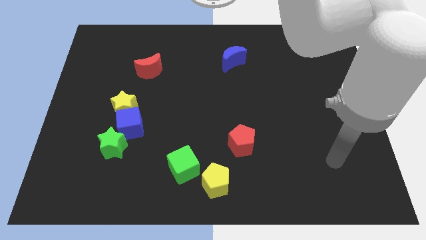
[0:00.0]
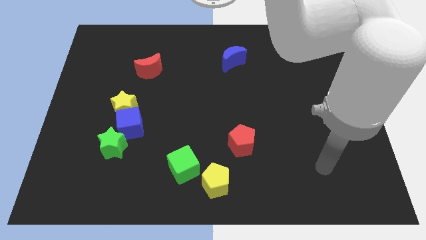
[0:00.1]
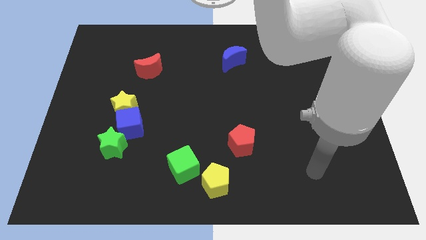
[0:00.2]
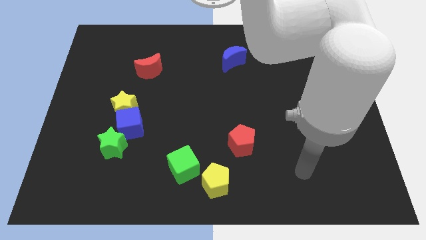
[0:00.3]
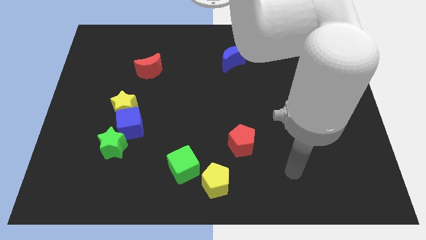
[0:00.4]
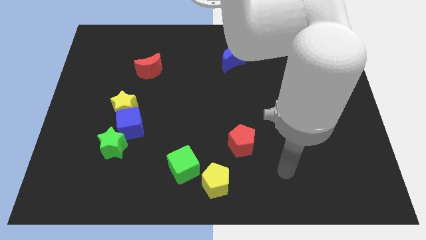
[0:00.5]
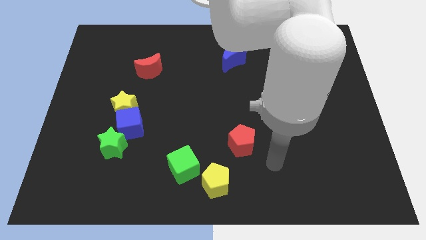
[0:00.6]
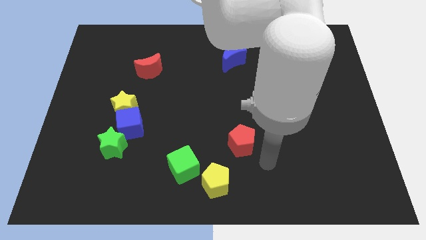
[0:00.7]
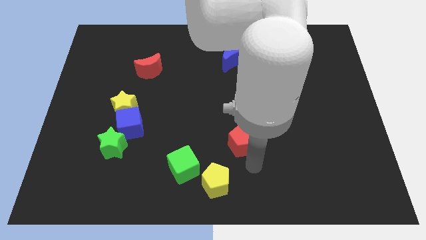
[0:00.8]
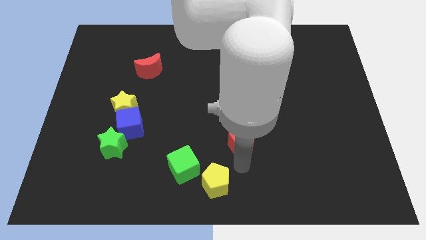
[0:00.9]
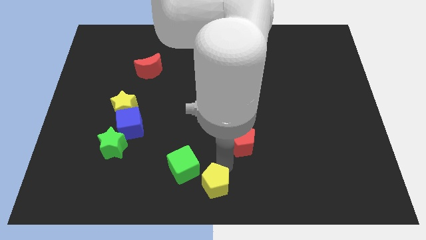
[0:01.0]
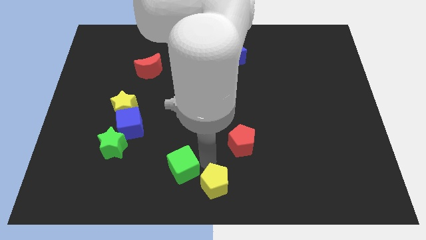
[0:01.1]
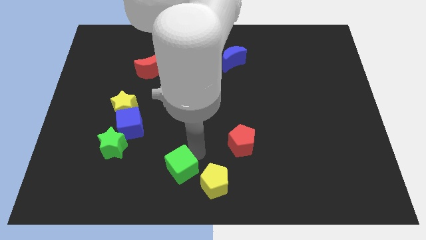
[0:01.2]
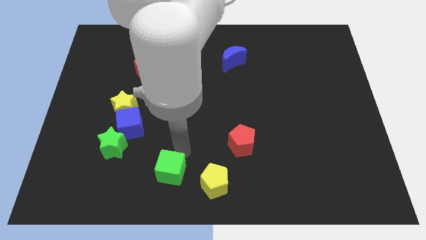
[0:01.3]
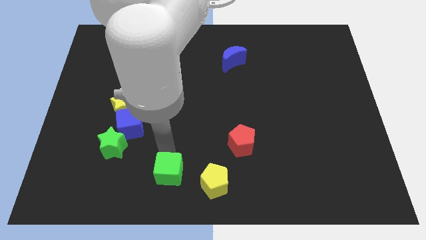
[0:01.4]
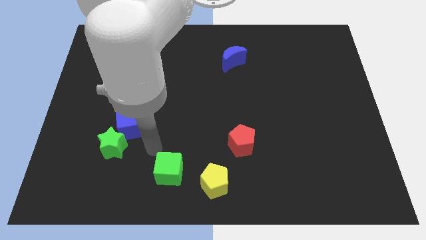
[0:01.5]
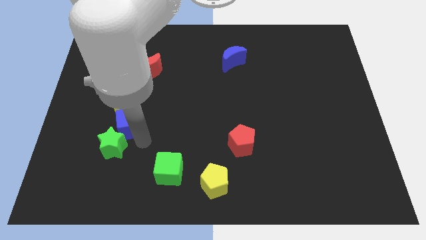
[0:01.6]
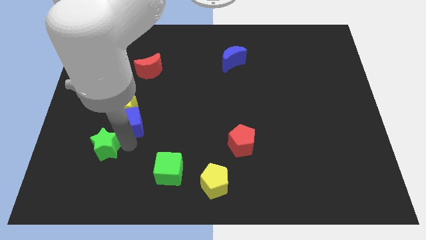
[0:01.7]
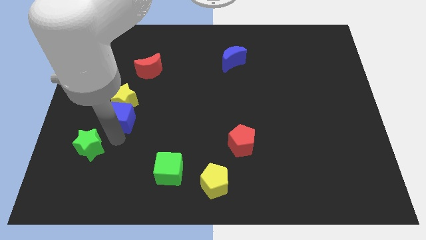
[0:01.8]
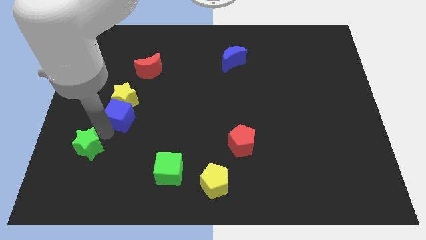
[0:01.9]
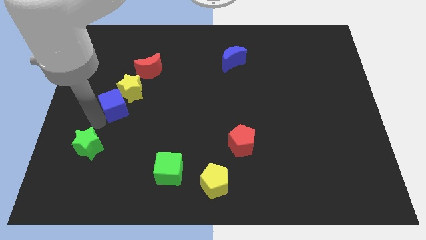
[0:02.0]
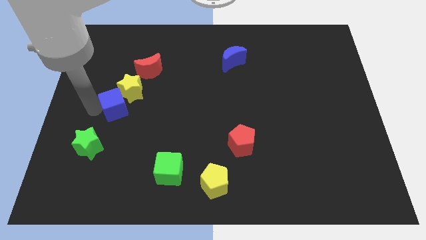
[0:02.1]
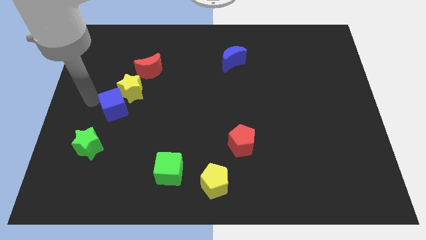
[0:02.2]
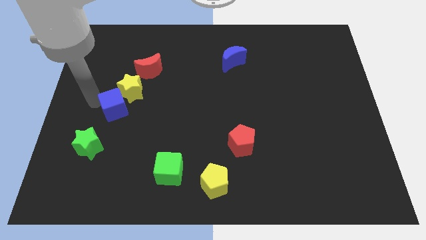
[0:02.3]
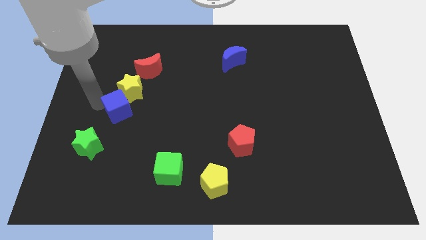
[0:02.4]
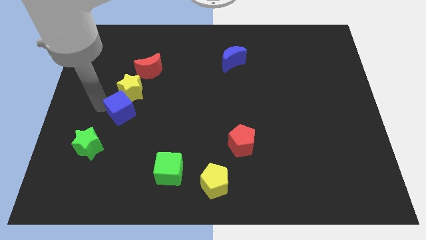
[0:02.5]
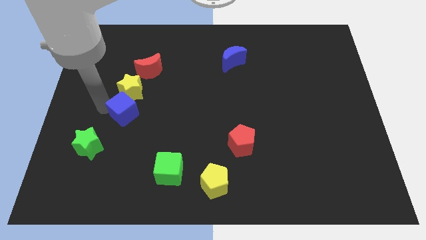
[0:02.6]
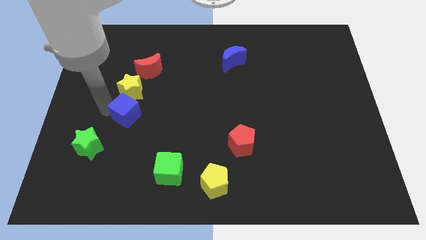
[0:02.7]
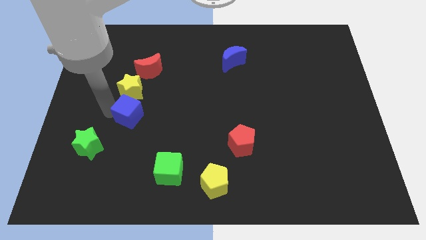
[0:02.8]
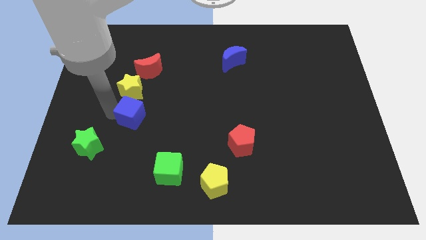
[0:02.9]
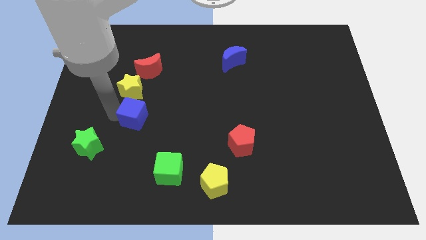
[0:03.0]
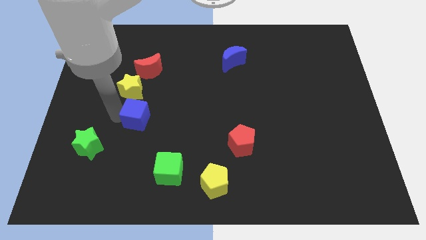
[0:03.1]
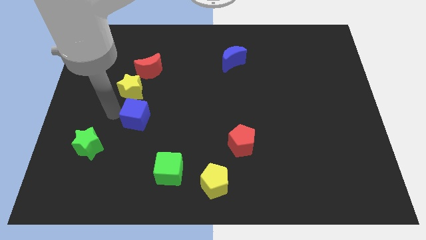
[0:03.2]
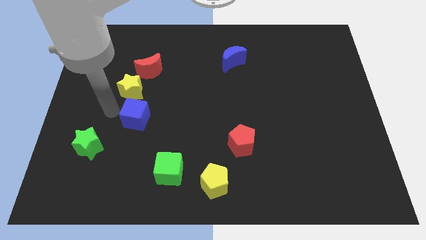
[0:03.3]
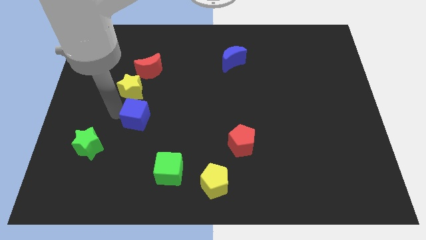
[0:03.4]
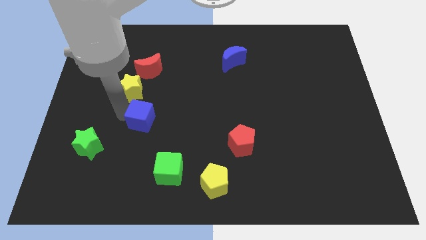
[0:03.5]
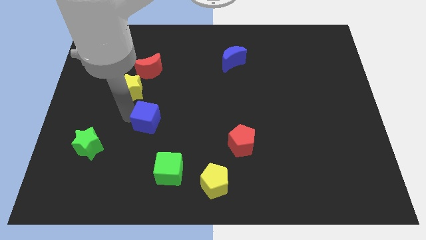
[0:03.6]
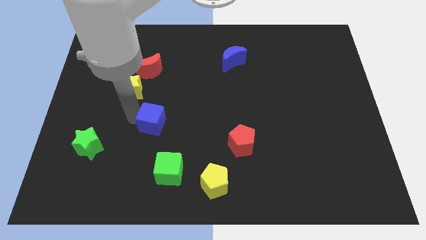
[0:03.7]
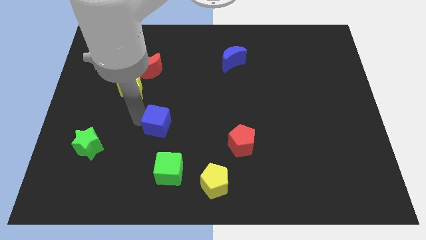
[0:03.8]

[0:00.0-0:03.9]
pull the blue cube apart from the yellow star and green star

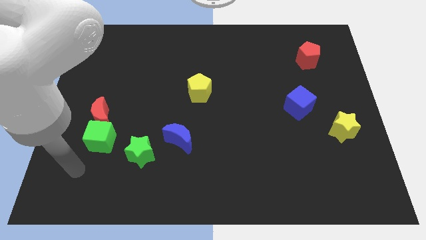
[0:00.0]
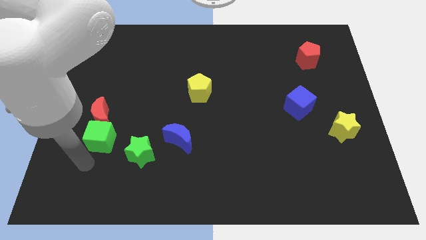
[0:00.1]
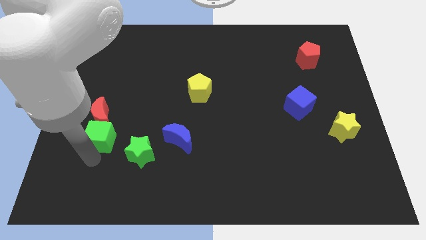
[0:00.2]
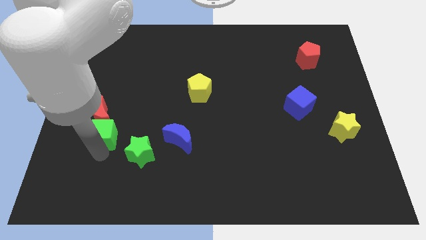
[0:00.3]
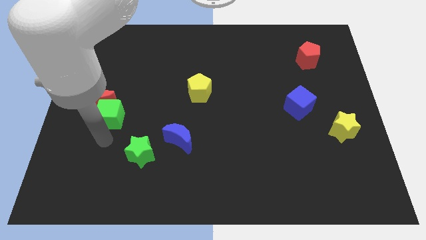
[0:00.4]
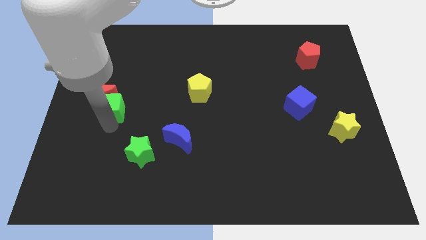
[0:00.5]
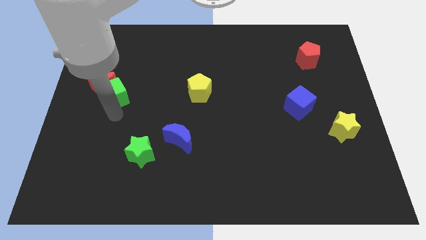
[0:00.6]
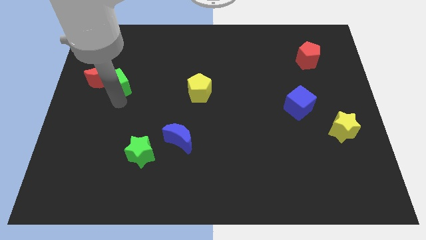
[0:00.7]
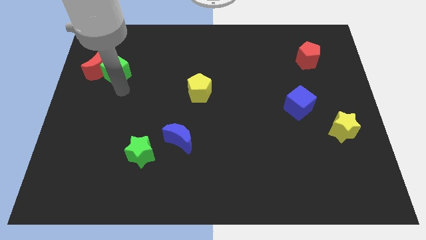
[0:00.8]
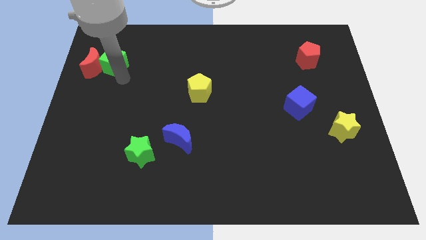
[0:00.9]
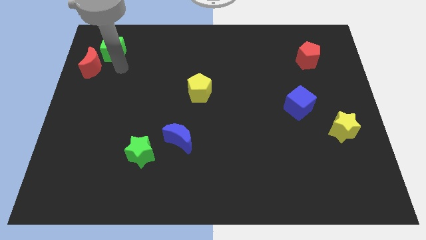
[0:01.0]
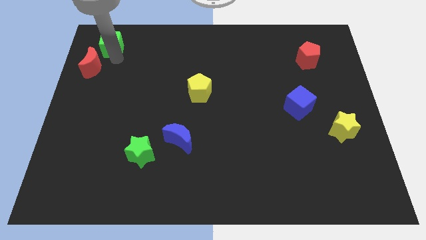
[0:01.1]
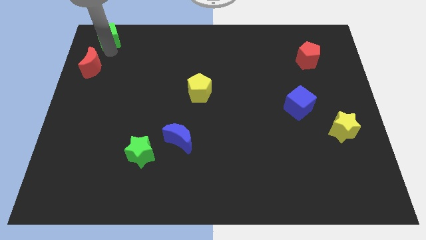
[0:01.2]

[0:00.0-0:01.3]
separate the red moon from the green cube

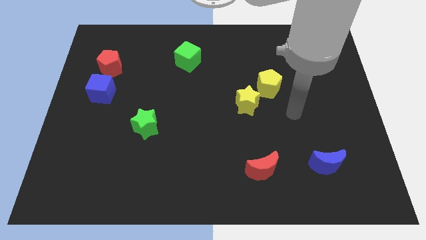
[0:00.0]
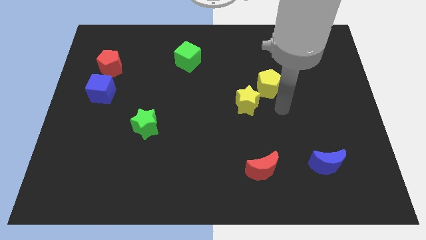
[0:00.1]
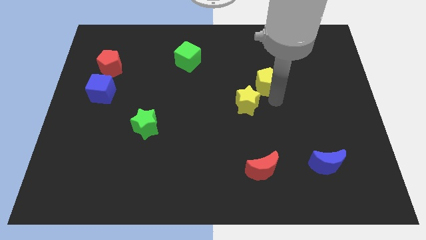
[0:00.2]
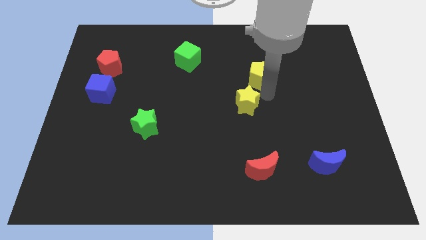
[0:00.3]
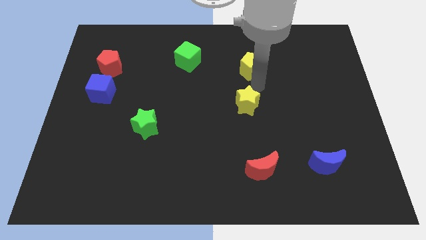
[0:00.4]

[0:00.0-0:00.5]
move the yellow star away from the yellow pentagon

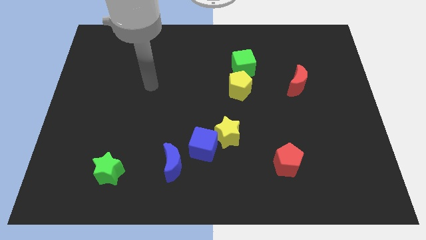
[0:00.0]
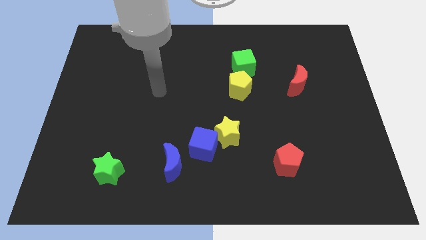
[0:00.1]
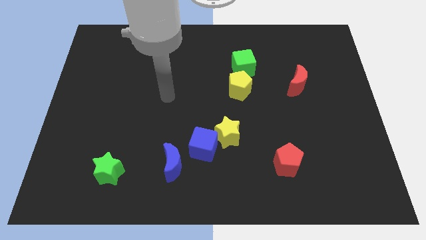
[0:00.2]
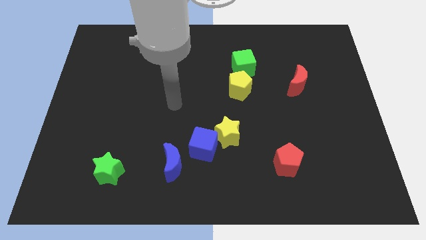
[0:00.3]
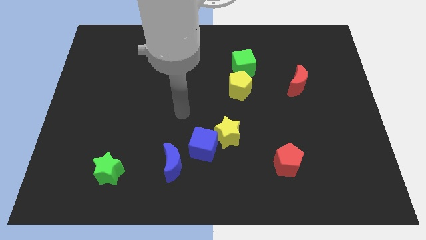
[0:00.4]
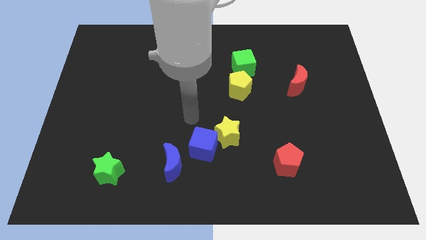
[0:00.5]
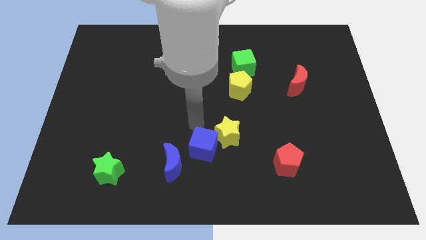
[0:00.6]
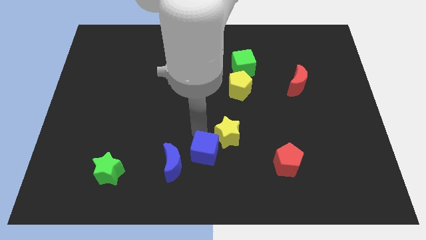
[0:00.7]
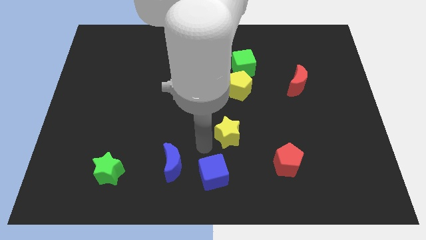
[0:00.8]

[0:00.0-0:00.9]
pull the yellow star apart from the blue cube

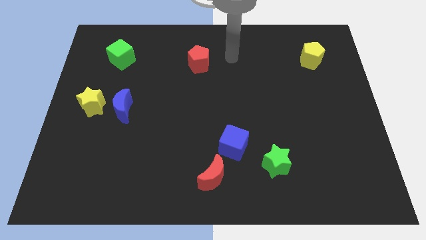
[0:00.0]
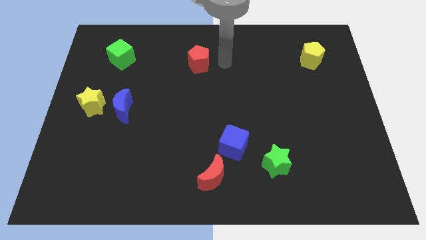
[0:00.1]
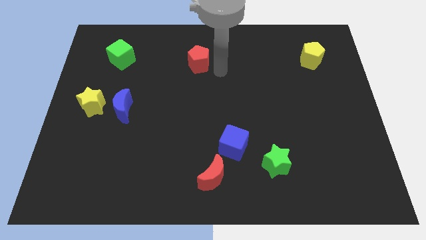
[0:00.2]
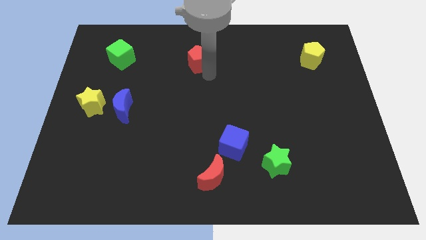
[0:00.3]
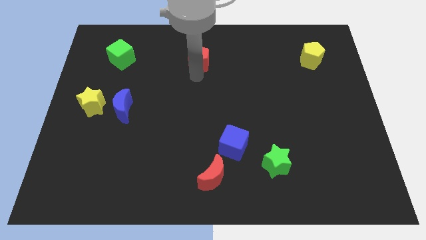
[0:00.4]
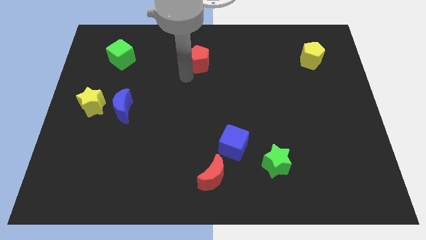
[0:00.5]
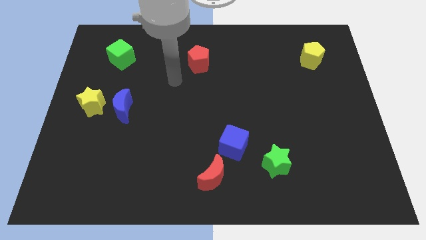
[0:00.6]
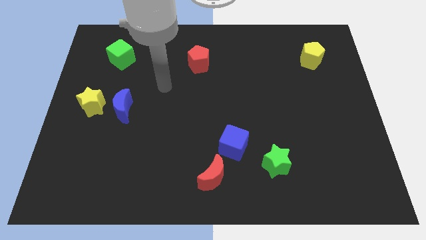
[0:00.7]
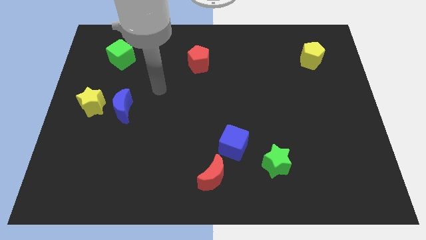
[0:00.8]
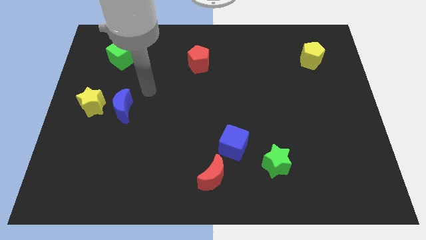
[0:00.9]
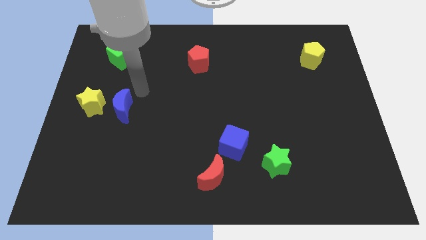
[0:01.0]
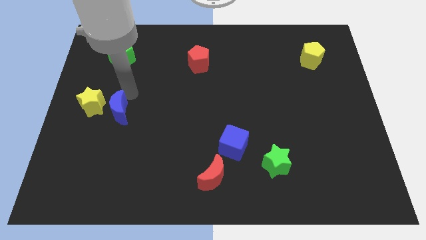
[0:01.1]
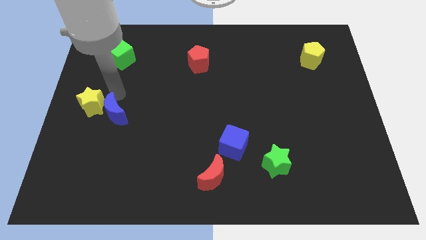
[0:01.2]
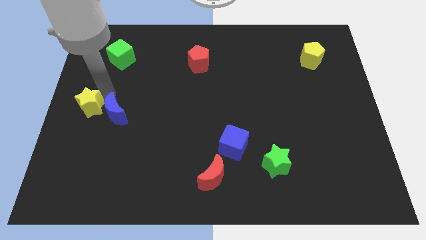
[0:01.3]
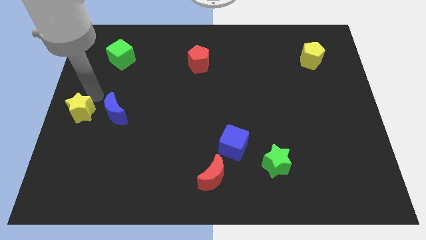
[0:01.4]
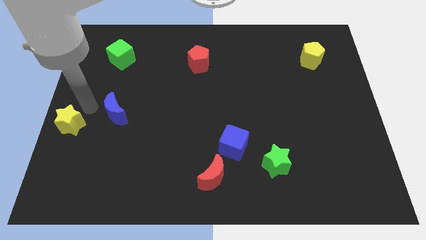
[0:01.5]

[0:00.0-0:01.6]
move the blue moon away from the yellow star

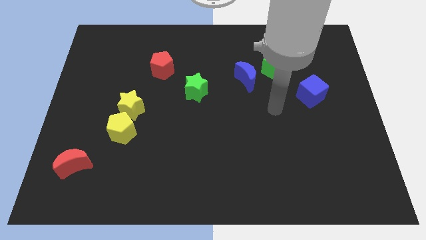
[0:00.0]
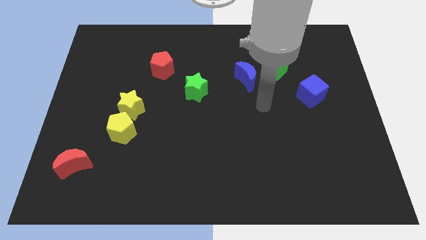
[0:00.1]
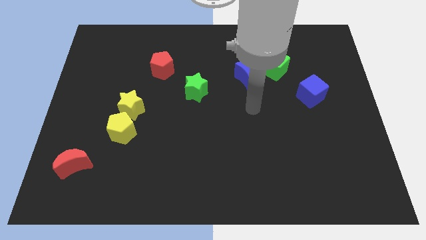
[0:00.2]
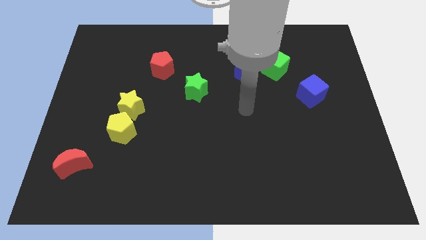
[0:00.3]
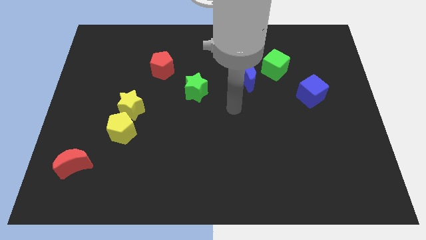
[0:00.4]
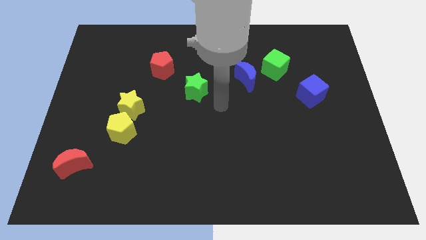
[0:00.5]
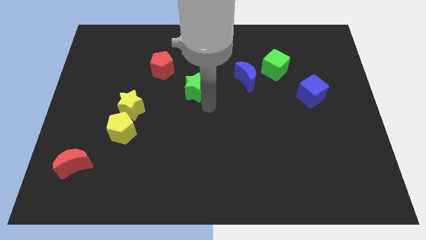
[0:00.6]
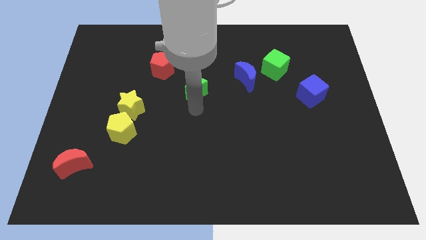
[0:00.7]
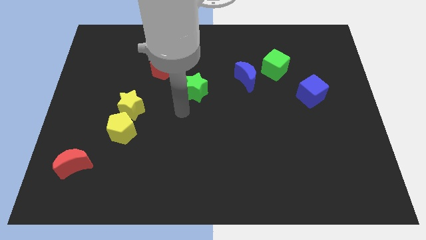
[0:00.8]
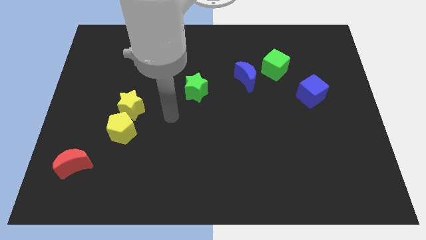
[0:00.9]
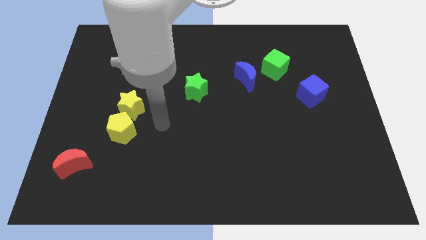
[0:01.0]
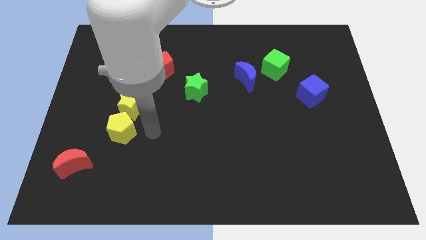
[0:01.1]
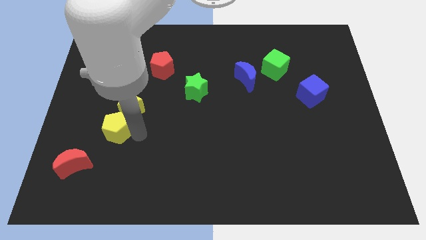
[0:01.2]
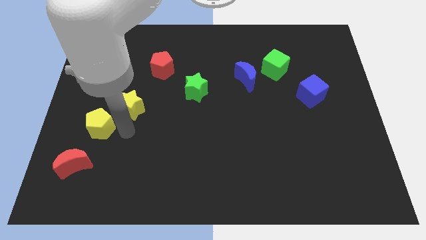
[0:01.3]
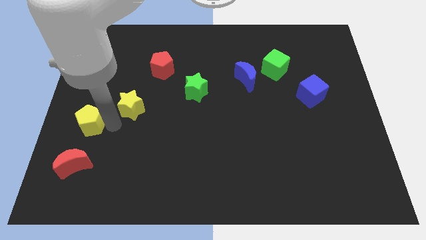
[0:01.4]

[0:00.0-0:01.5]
pull the yellow star apart from the yellow pentagon
